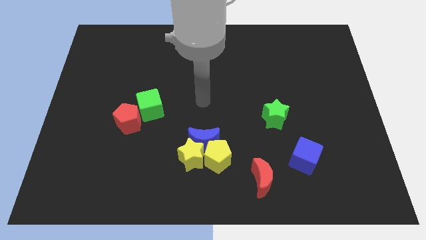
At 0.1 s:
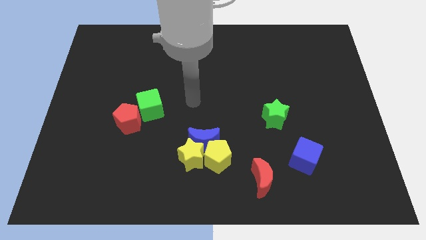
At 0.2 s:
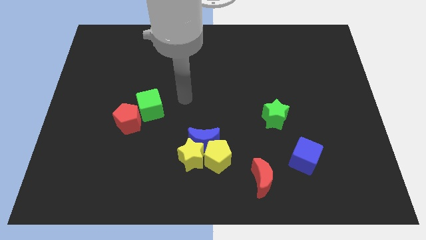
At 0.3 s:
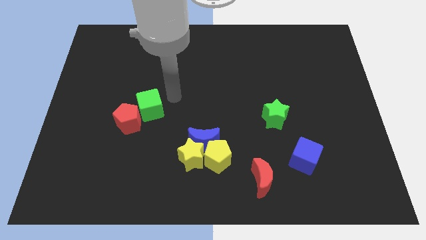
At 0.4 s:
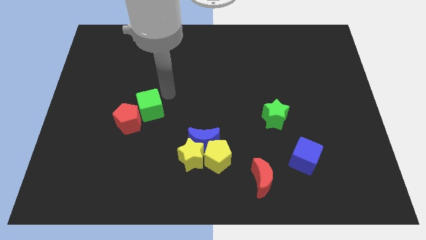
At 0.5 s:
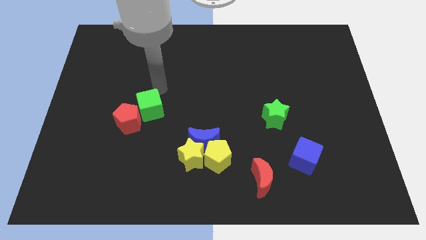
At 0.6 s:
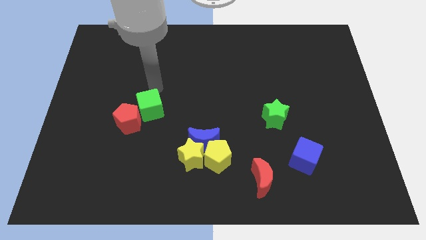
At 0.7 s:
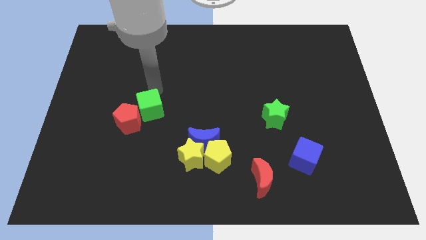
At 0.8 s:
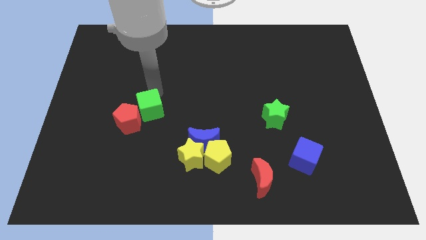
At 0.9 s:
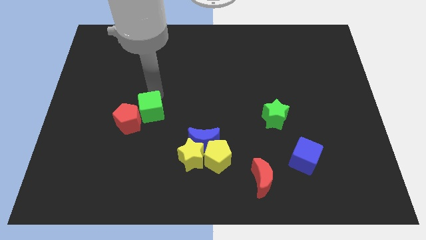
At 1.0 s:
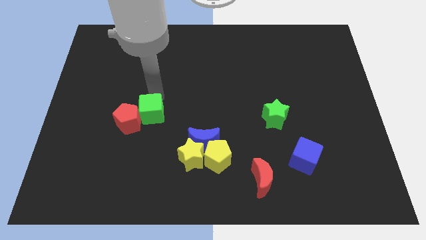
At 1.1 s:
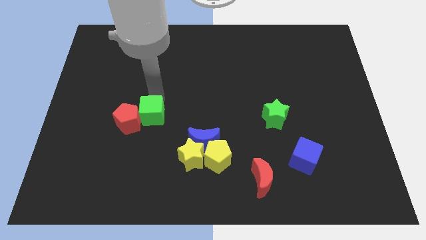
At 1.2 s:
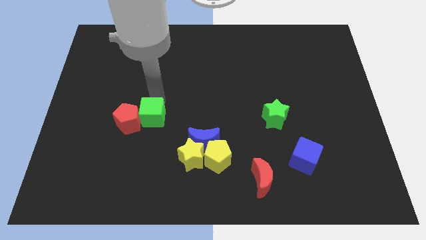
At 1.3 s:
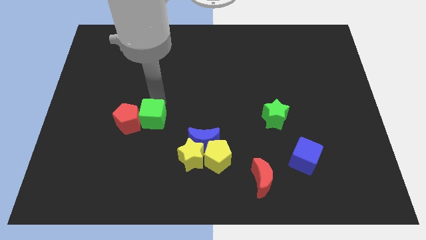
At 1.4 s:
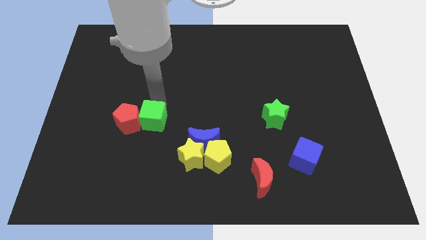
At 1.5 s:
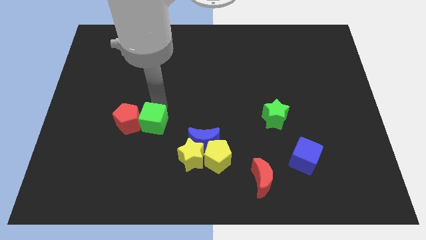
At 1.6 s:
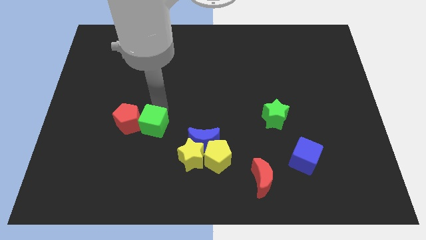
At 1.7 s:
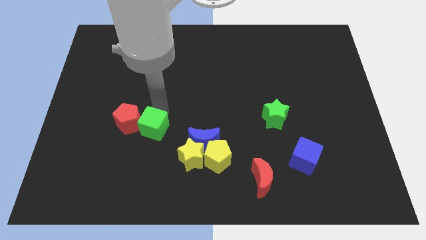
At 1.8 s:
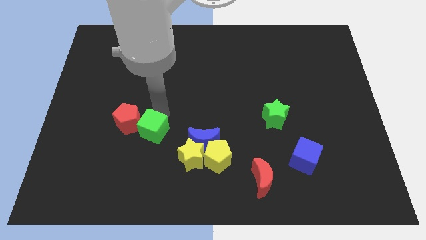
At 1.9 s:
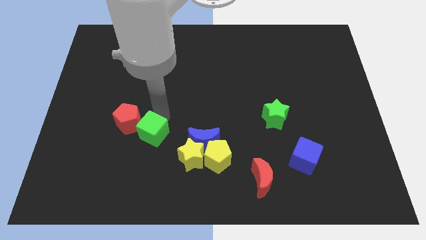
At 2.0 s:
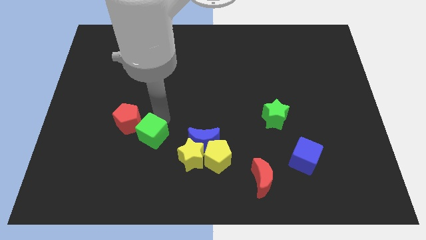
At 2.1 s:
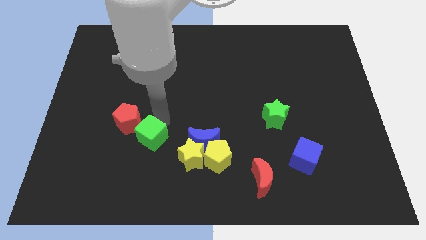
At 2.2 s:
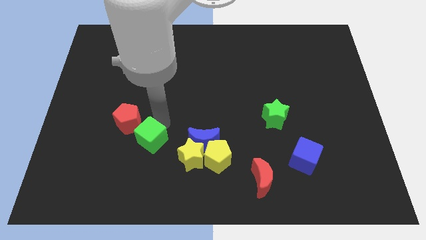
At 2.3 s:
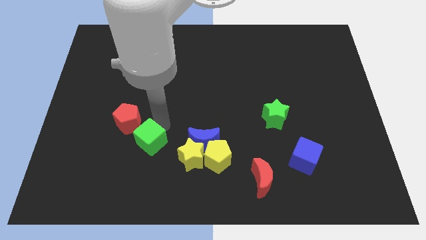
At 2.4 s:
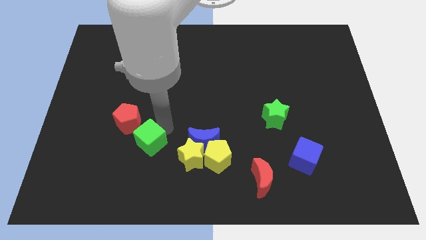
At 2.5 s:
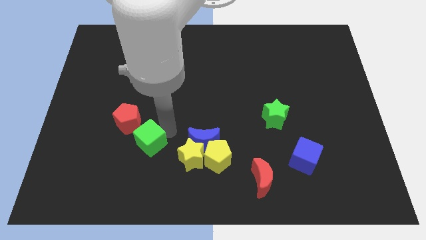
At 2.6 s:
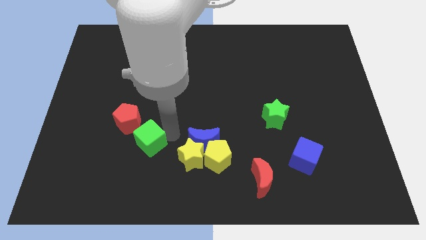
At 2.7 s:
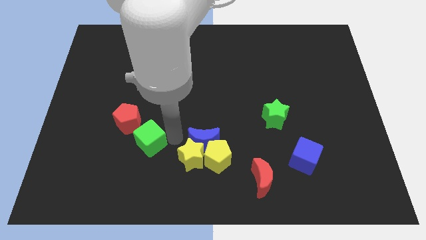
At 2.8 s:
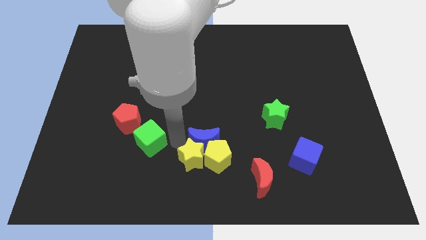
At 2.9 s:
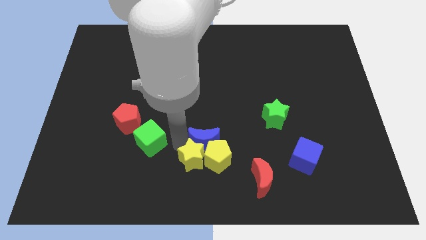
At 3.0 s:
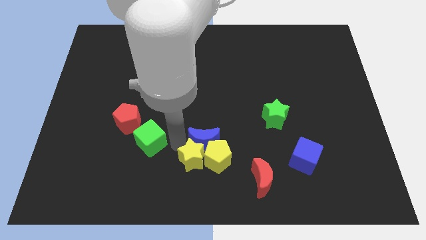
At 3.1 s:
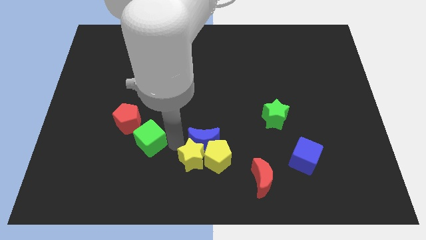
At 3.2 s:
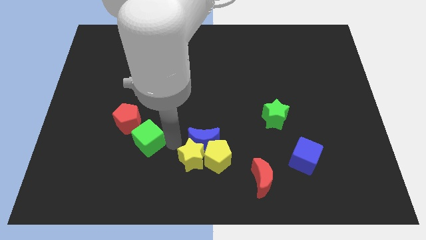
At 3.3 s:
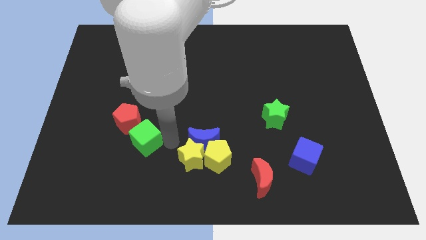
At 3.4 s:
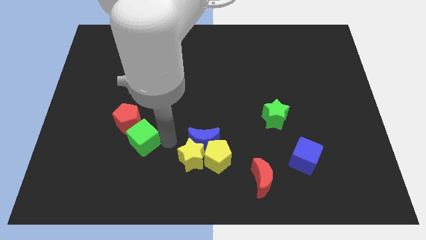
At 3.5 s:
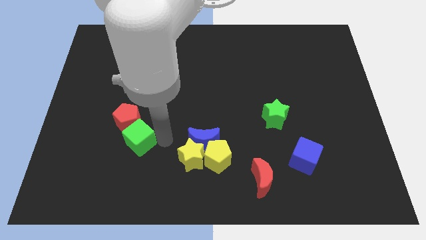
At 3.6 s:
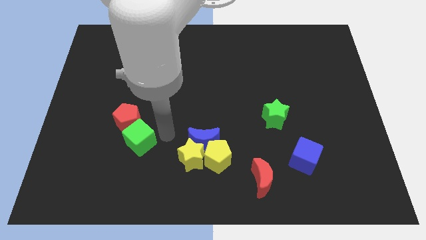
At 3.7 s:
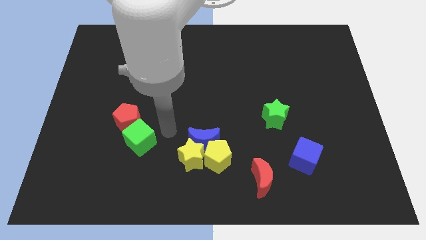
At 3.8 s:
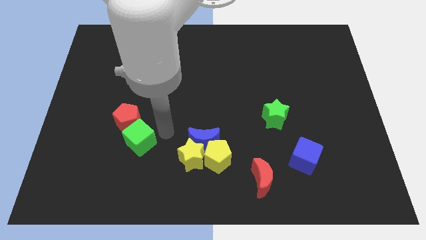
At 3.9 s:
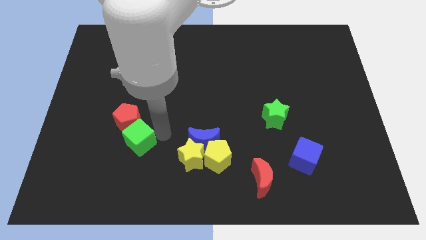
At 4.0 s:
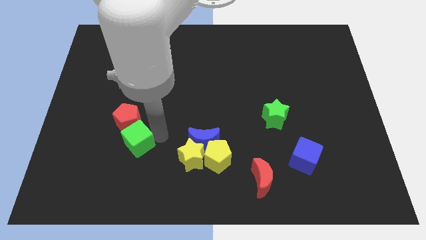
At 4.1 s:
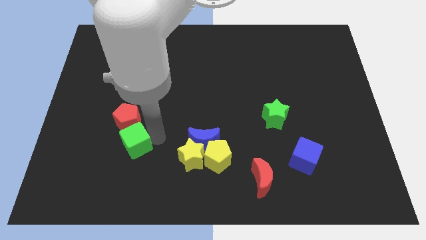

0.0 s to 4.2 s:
push the green cube down and to the left a little

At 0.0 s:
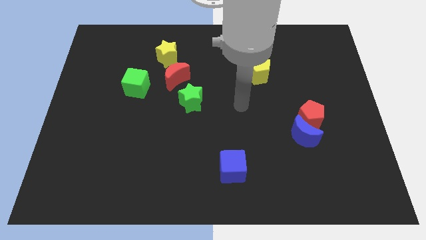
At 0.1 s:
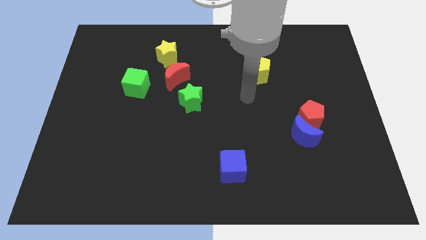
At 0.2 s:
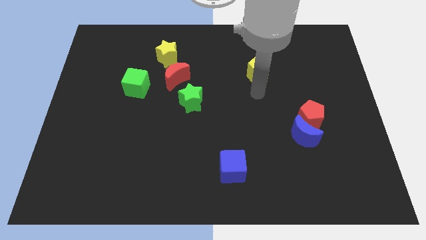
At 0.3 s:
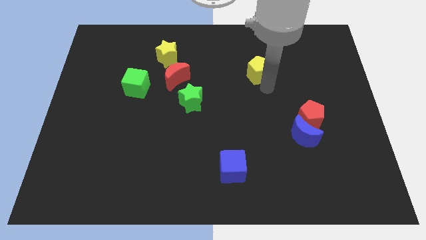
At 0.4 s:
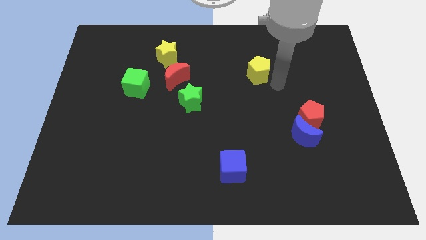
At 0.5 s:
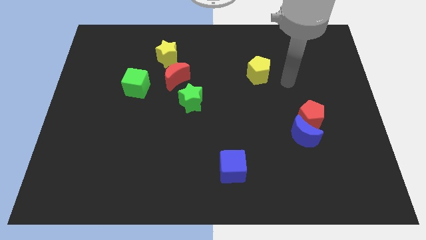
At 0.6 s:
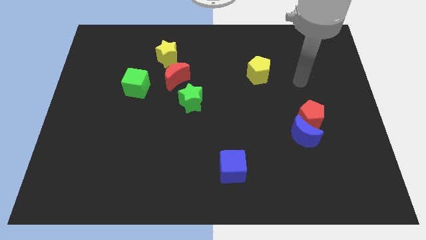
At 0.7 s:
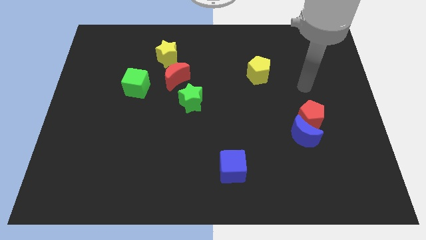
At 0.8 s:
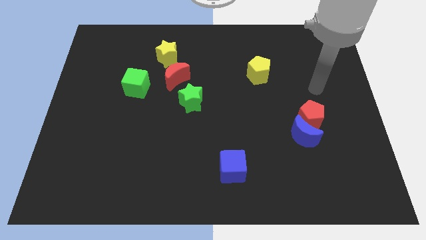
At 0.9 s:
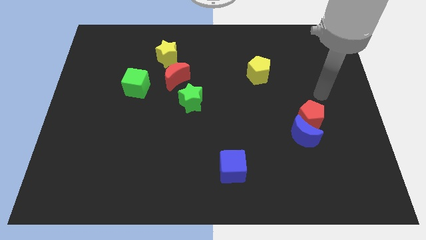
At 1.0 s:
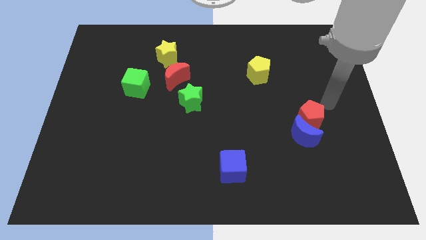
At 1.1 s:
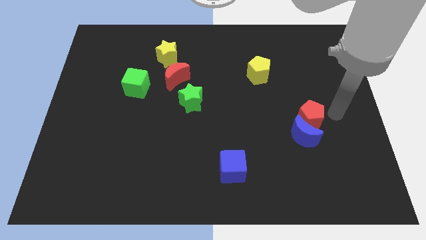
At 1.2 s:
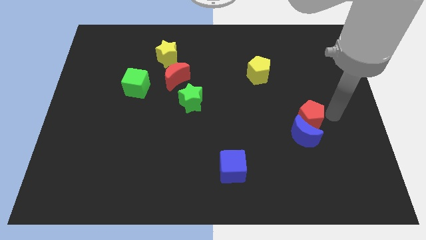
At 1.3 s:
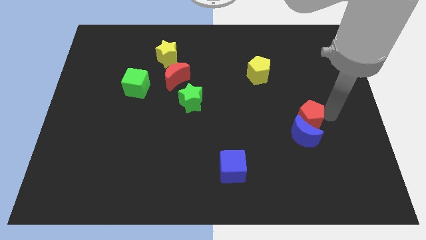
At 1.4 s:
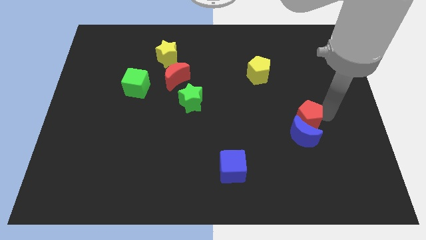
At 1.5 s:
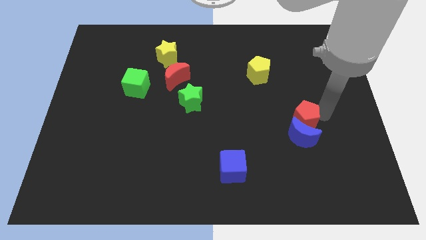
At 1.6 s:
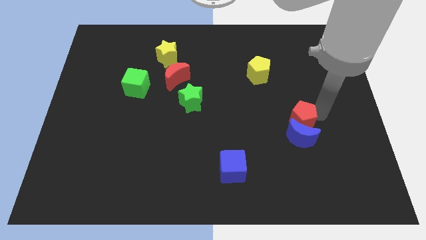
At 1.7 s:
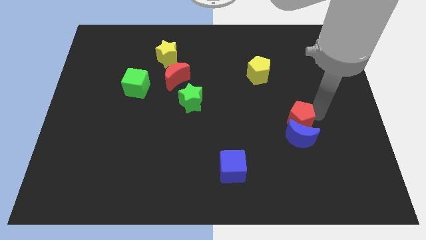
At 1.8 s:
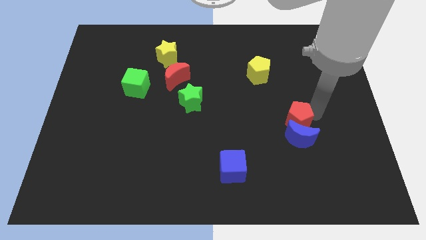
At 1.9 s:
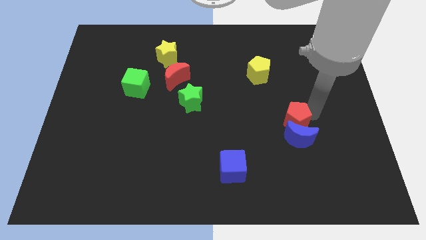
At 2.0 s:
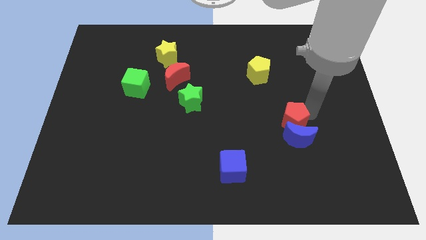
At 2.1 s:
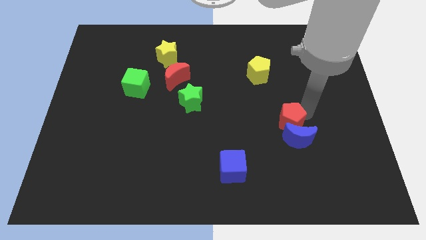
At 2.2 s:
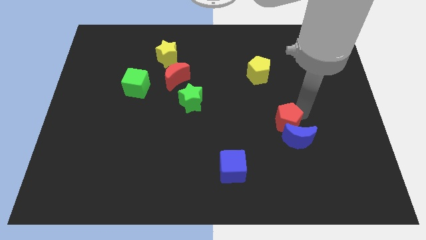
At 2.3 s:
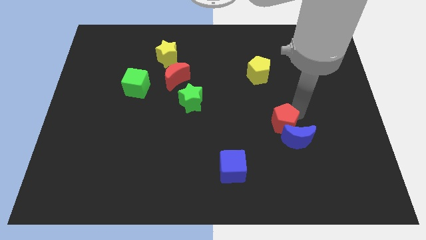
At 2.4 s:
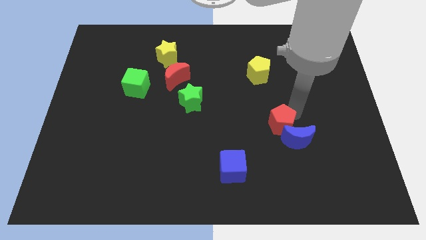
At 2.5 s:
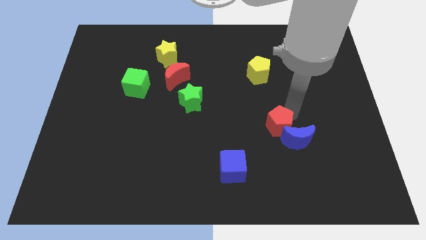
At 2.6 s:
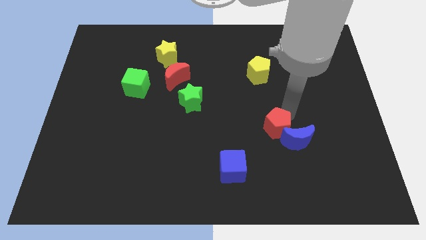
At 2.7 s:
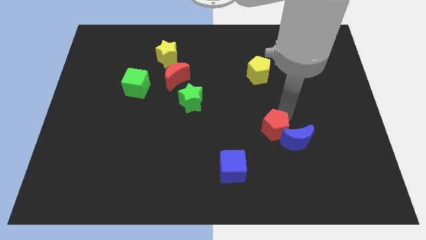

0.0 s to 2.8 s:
push the red pentagon a little downwards and then left

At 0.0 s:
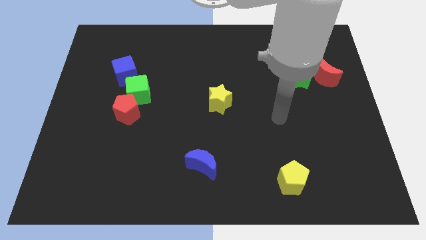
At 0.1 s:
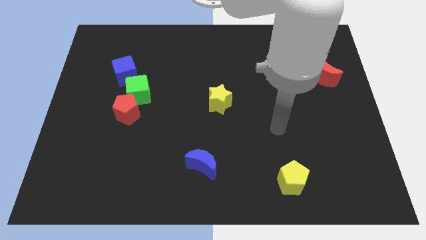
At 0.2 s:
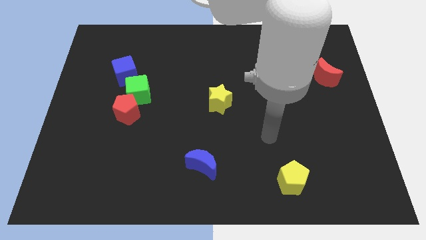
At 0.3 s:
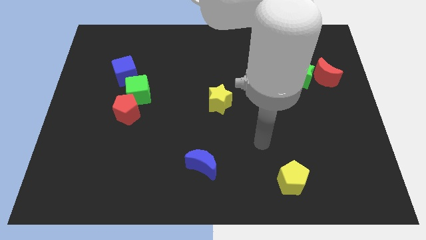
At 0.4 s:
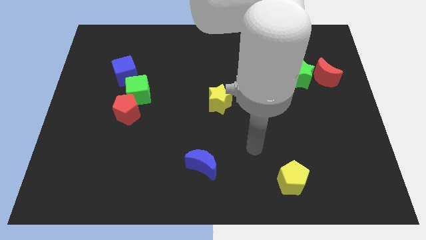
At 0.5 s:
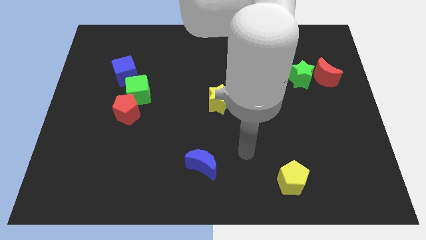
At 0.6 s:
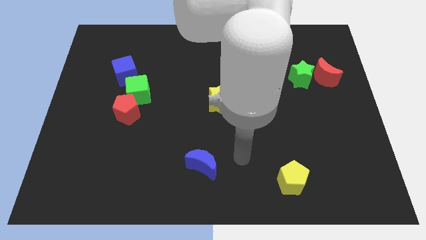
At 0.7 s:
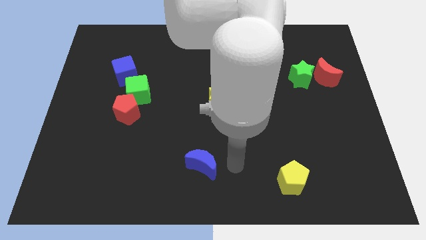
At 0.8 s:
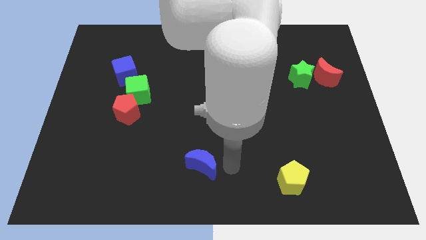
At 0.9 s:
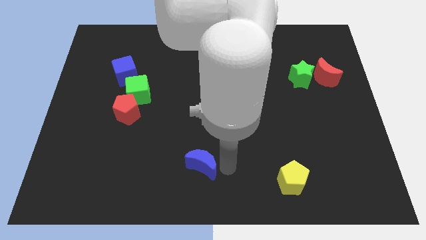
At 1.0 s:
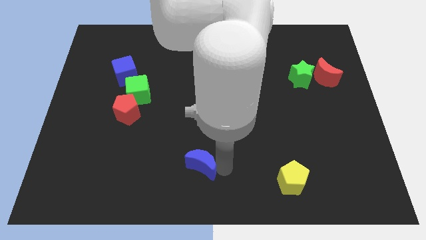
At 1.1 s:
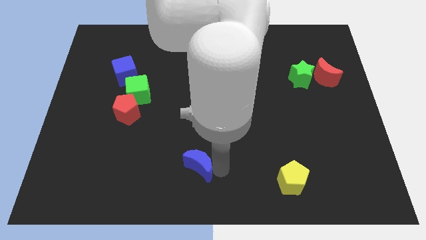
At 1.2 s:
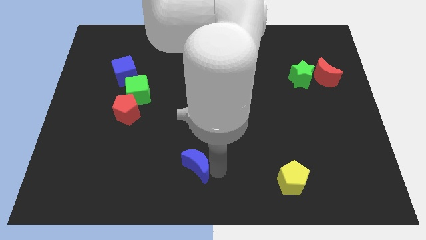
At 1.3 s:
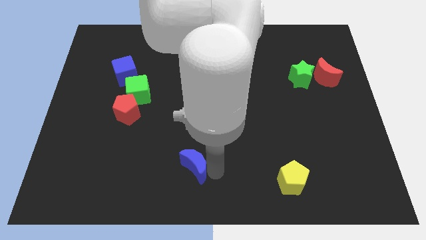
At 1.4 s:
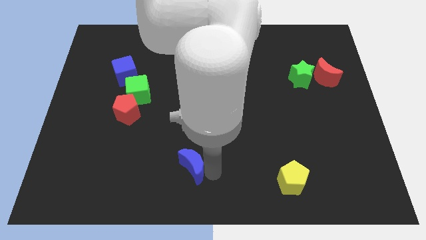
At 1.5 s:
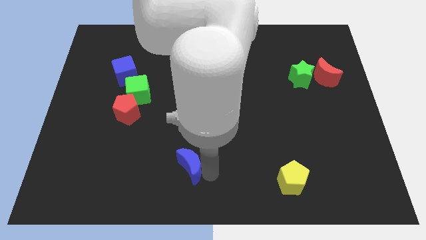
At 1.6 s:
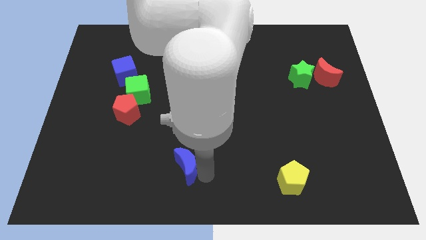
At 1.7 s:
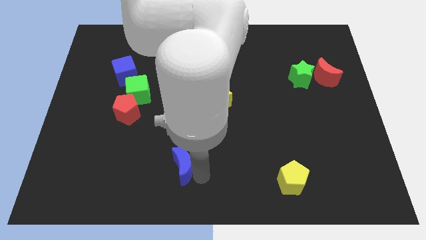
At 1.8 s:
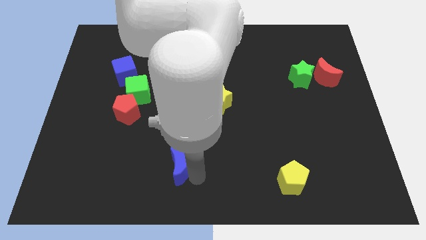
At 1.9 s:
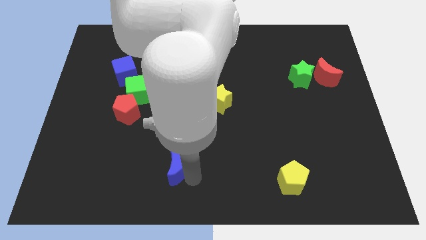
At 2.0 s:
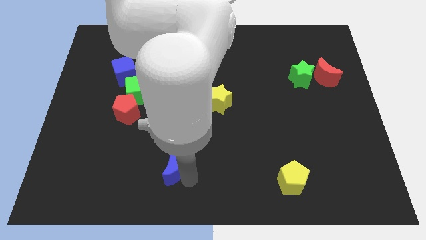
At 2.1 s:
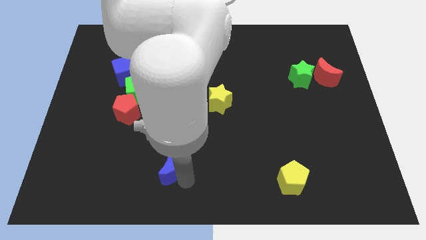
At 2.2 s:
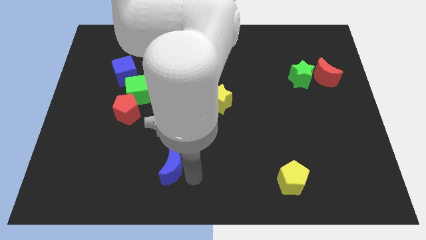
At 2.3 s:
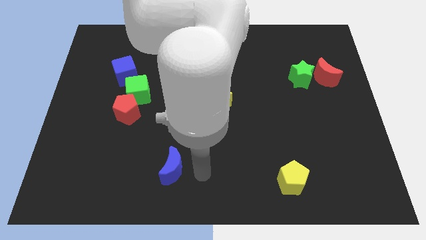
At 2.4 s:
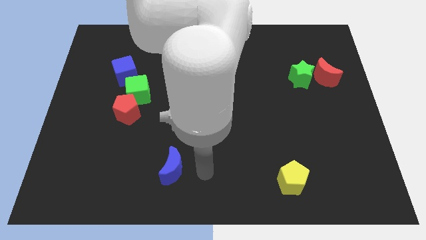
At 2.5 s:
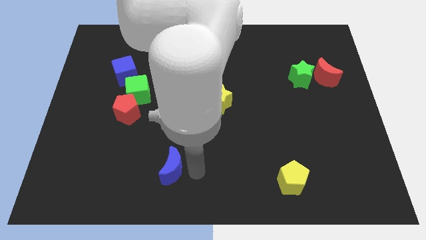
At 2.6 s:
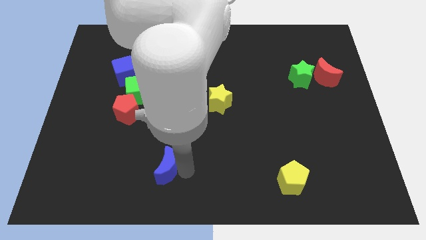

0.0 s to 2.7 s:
slightly slide the blue moon left
